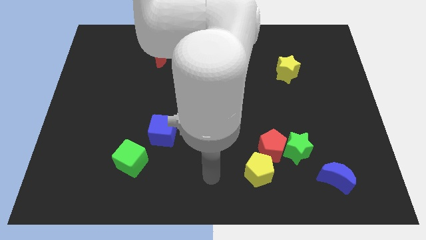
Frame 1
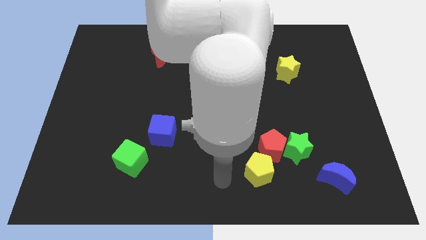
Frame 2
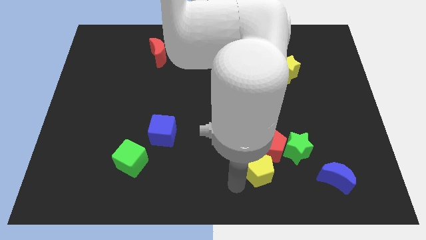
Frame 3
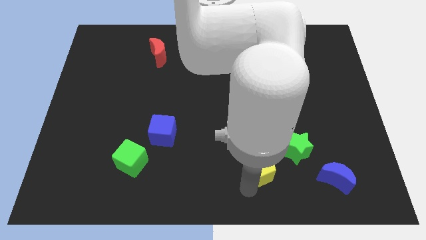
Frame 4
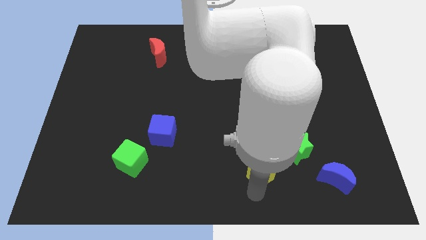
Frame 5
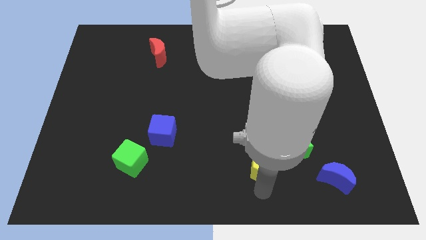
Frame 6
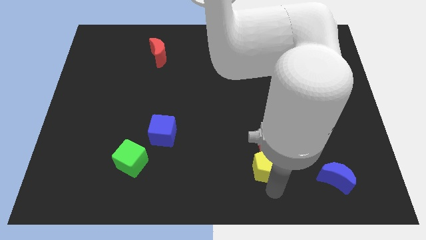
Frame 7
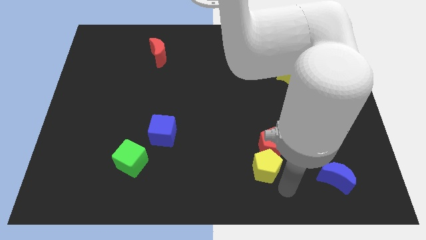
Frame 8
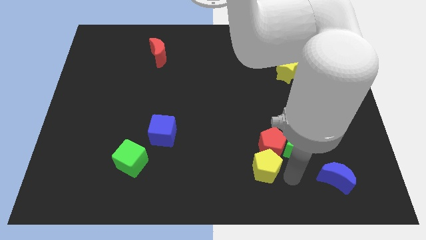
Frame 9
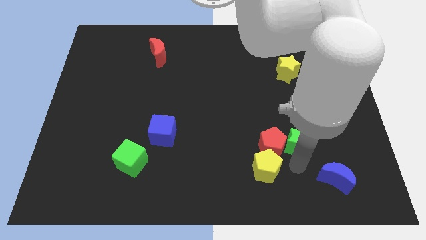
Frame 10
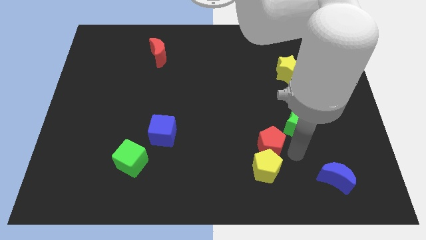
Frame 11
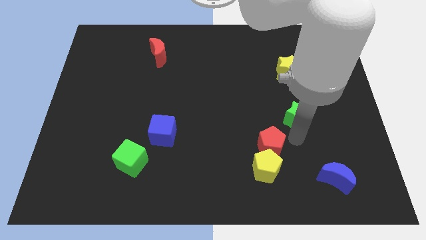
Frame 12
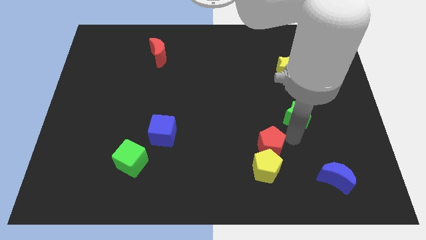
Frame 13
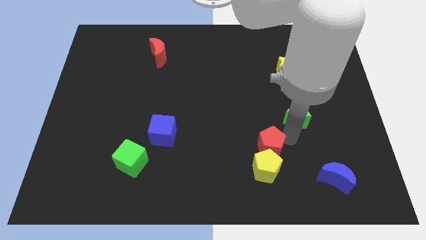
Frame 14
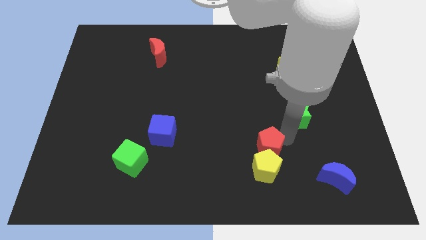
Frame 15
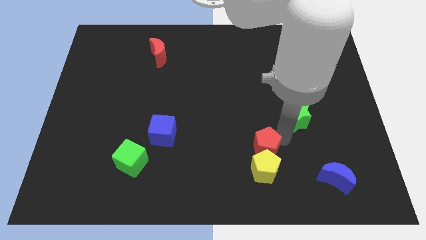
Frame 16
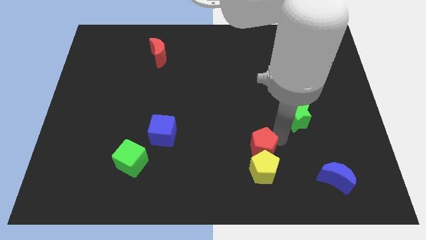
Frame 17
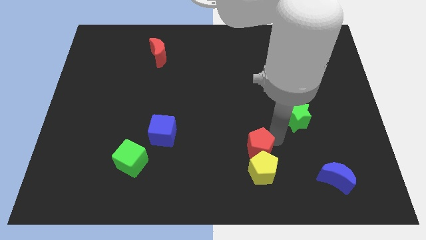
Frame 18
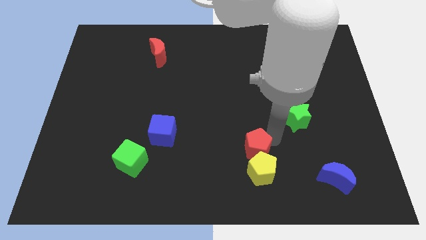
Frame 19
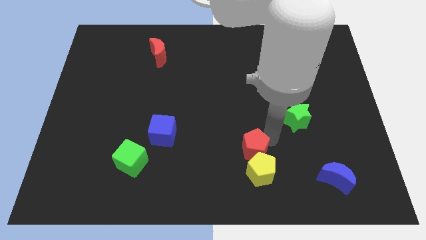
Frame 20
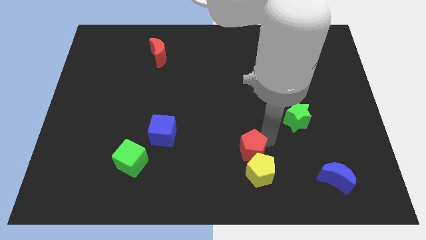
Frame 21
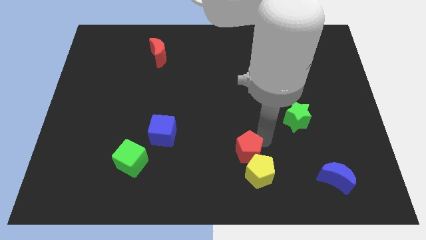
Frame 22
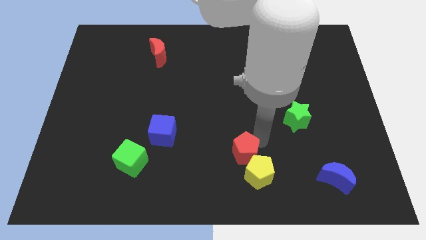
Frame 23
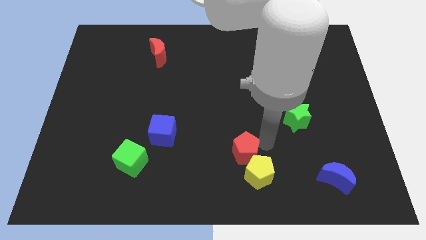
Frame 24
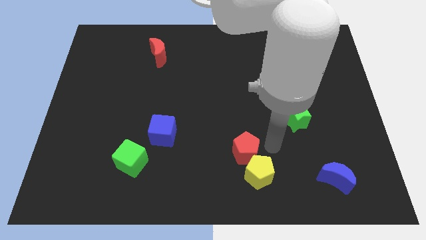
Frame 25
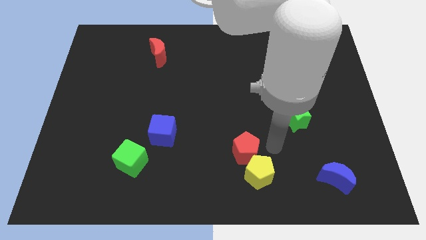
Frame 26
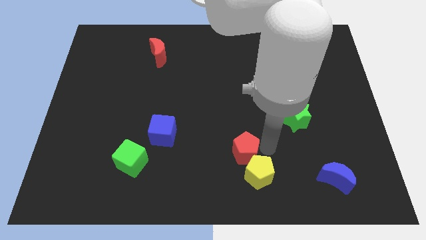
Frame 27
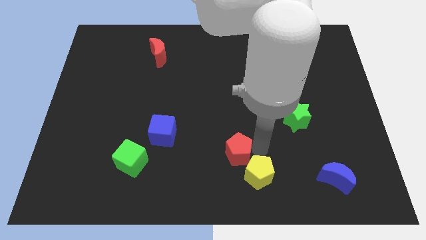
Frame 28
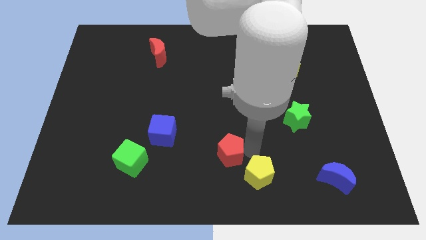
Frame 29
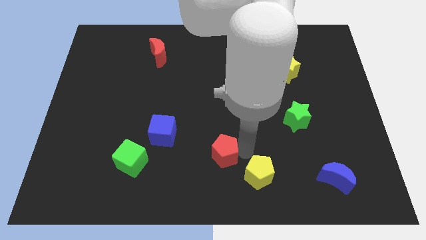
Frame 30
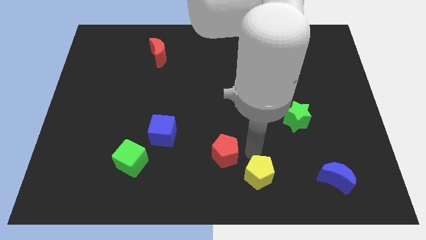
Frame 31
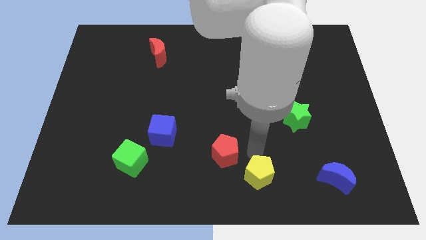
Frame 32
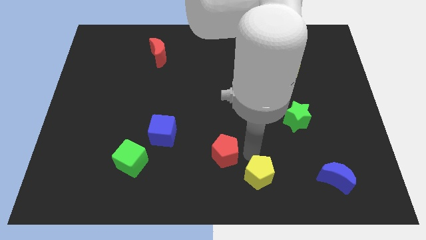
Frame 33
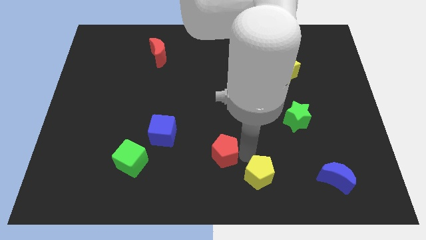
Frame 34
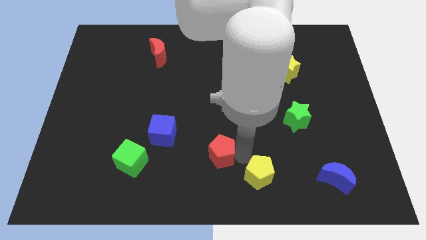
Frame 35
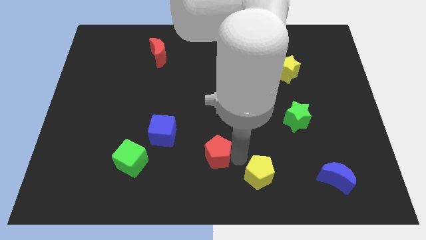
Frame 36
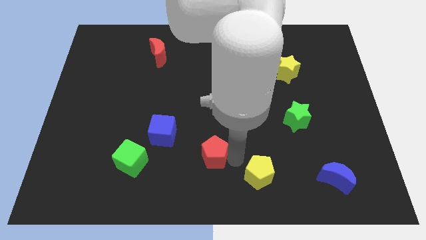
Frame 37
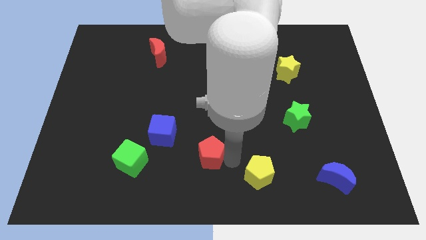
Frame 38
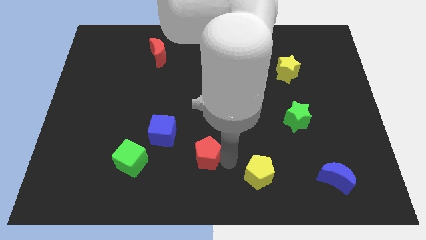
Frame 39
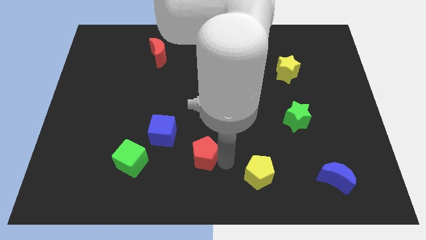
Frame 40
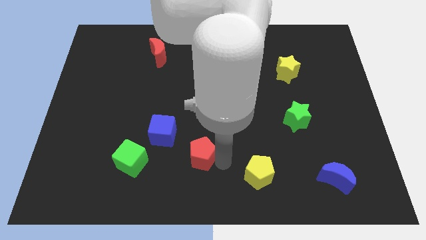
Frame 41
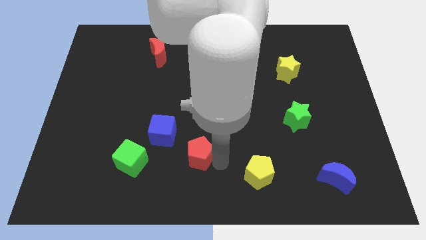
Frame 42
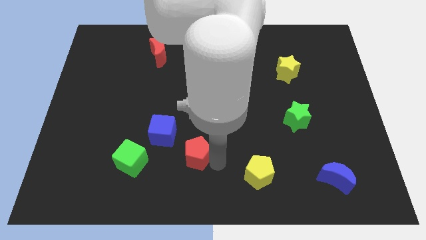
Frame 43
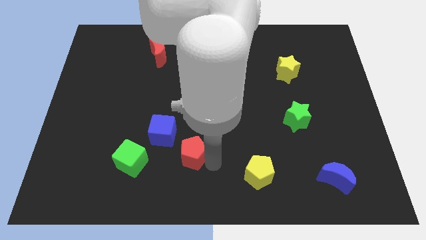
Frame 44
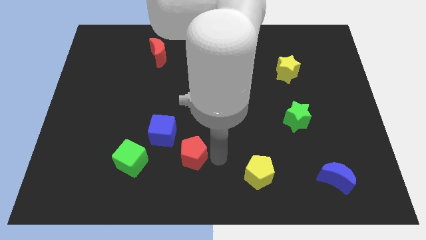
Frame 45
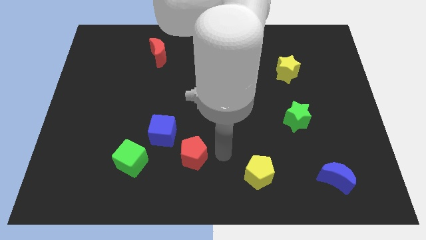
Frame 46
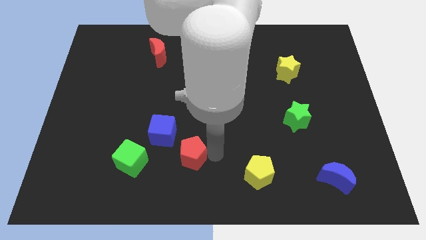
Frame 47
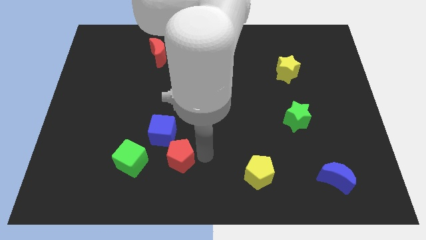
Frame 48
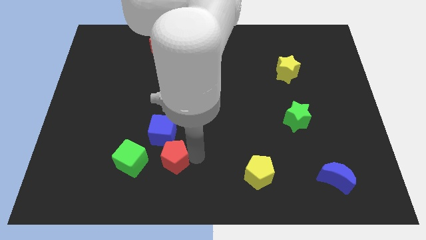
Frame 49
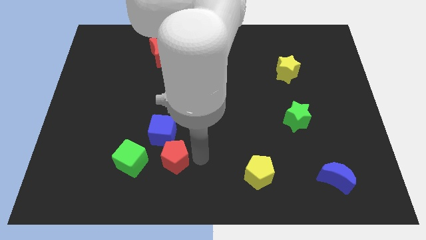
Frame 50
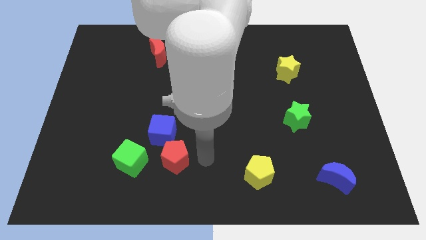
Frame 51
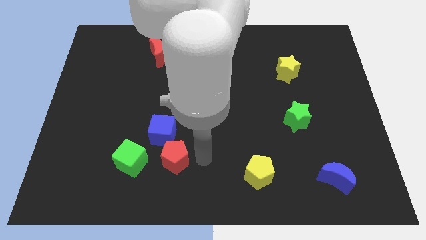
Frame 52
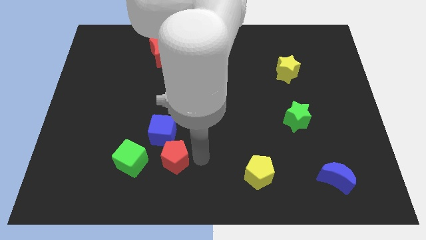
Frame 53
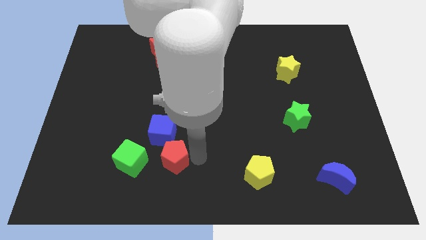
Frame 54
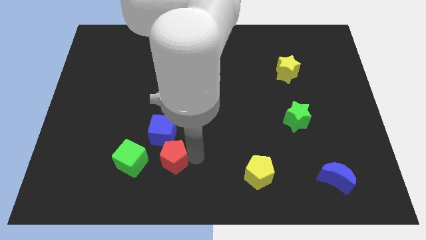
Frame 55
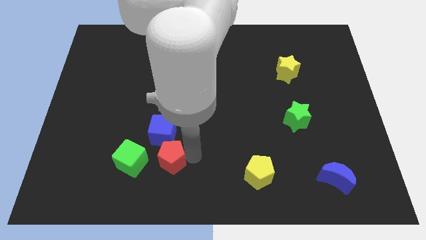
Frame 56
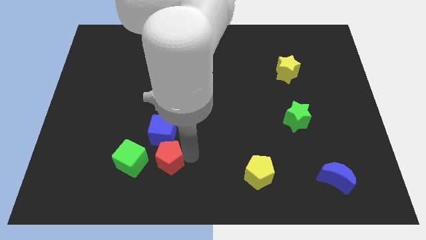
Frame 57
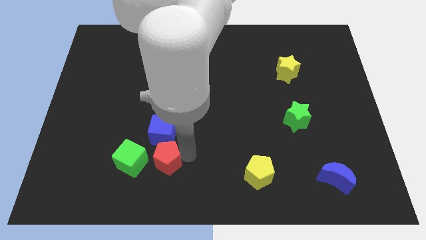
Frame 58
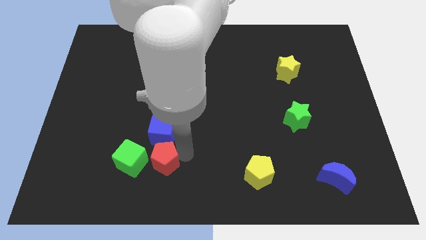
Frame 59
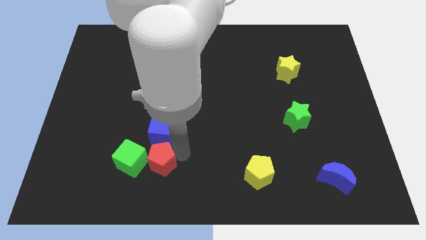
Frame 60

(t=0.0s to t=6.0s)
put the red pentagon next to the green cube

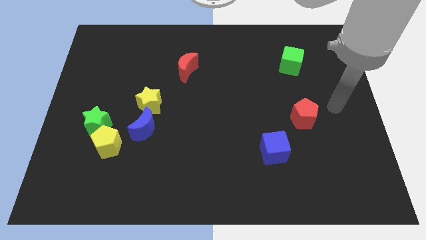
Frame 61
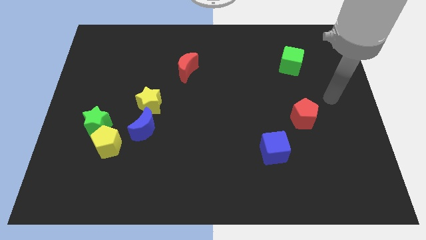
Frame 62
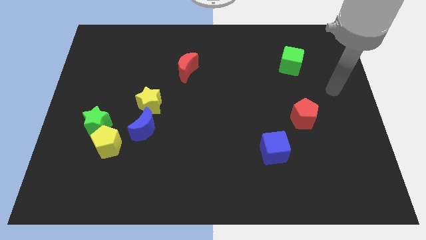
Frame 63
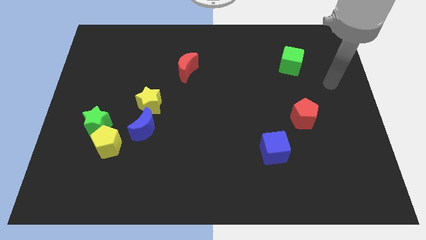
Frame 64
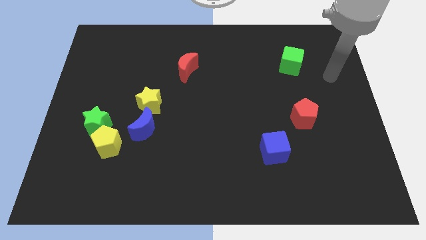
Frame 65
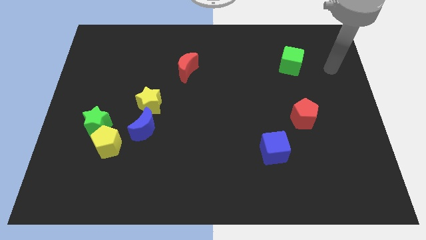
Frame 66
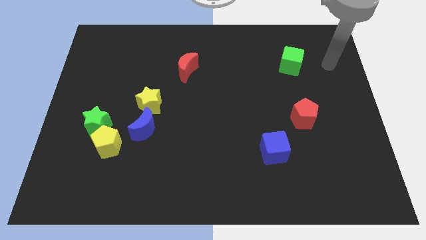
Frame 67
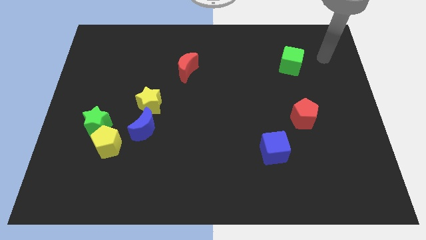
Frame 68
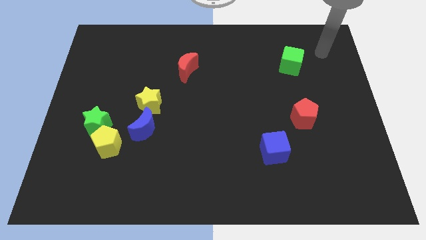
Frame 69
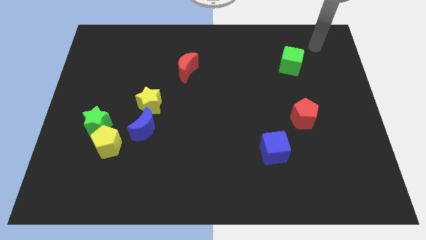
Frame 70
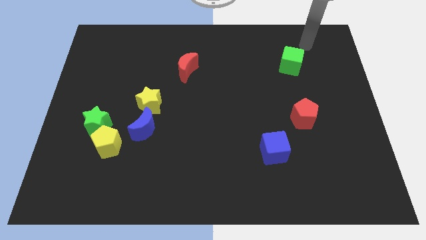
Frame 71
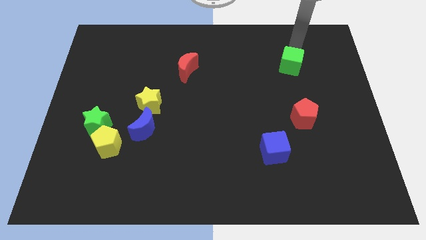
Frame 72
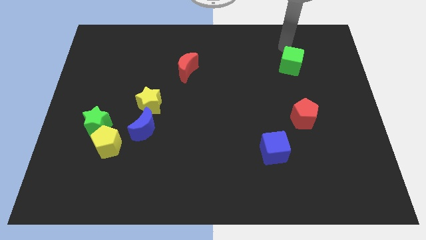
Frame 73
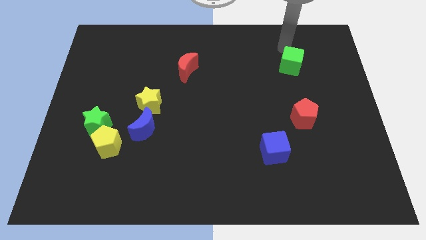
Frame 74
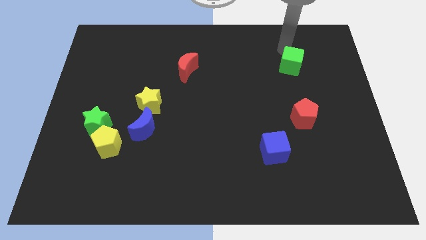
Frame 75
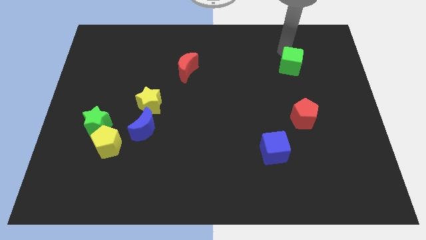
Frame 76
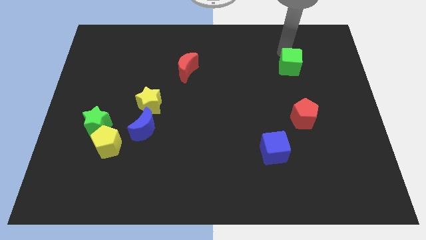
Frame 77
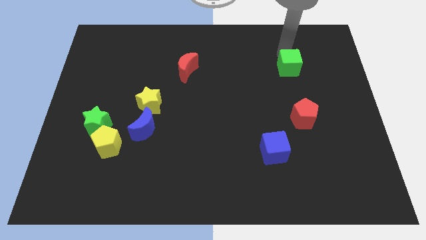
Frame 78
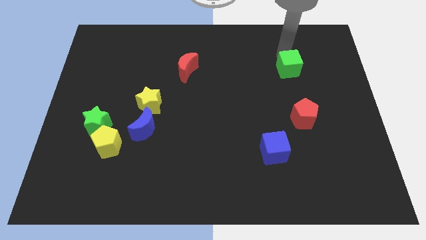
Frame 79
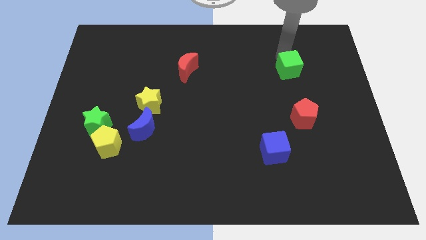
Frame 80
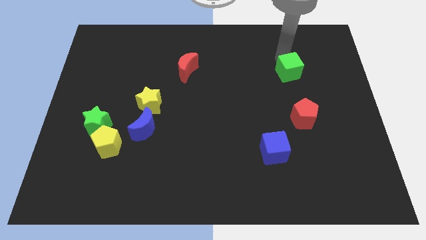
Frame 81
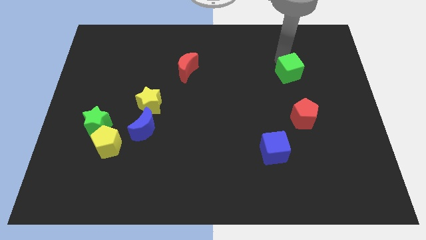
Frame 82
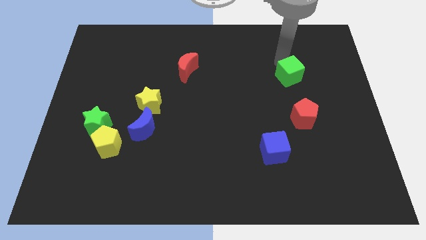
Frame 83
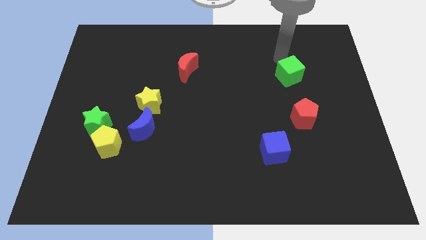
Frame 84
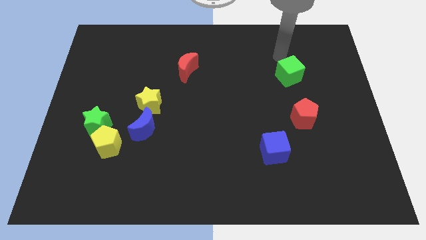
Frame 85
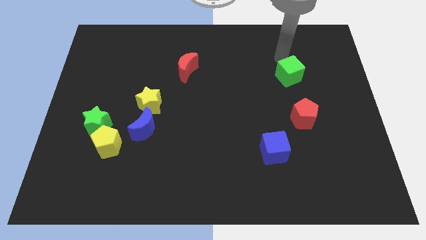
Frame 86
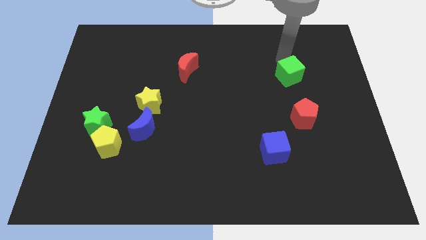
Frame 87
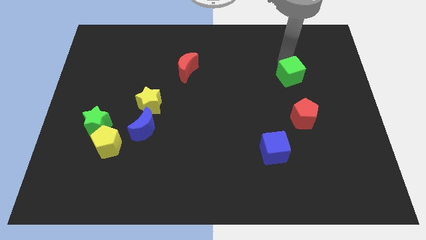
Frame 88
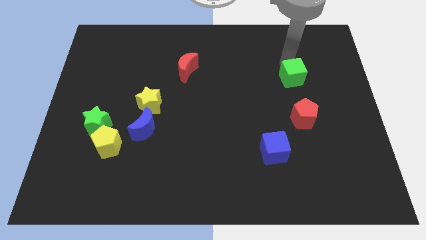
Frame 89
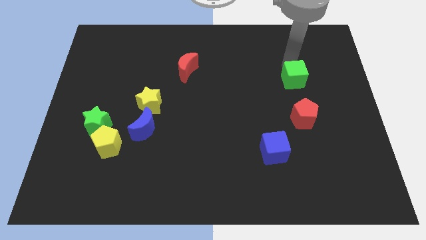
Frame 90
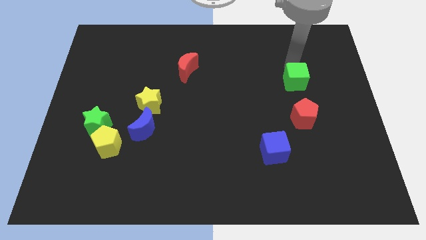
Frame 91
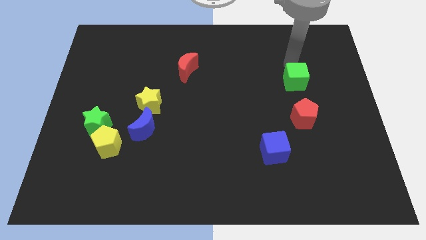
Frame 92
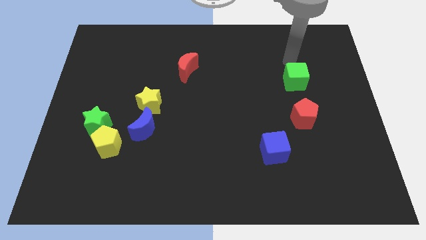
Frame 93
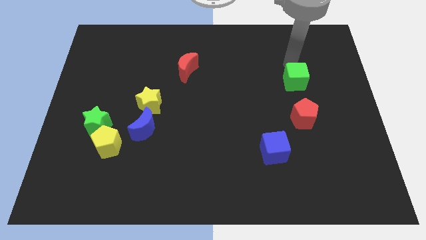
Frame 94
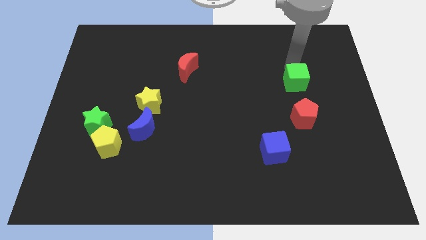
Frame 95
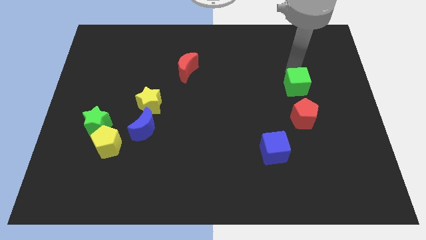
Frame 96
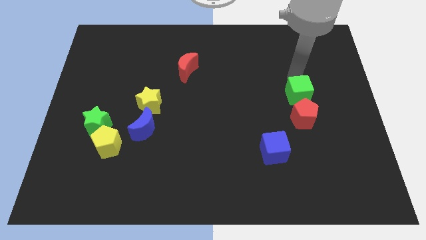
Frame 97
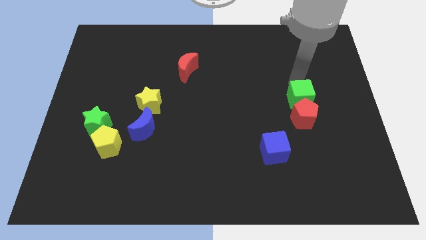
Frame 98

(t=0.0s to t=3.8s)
push the green cube close to the red pentagon
